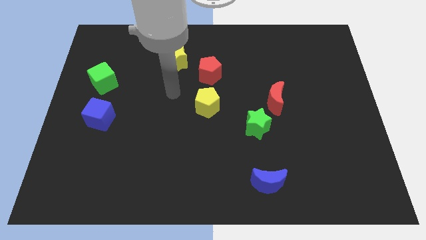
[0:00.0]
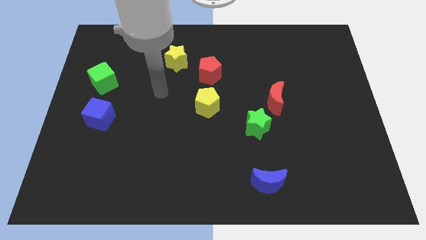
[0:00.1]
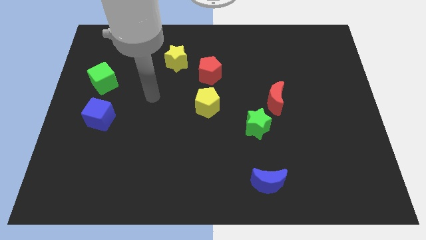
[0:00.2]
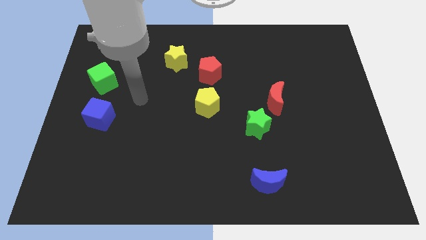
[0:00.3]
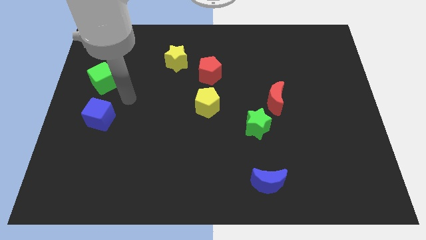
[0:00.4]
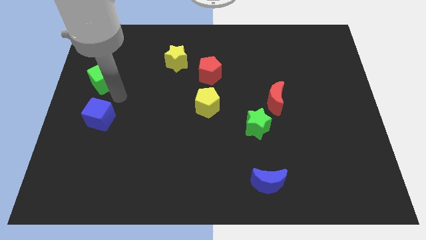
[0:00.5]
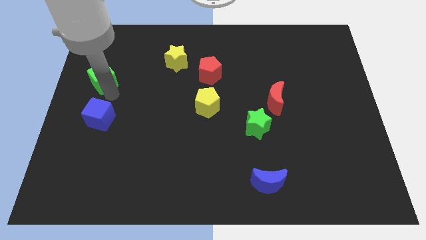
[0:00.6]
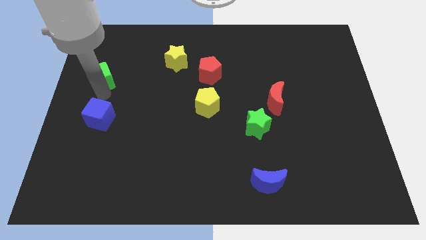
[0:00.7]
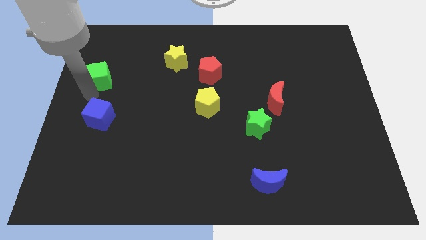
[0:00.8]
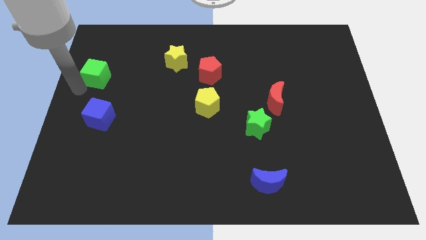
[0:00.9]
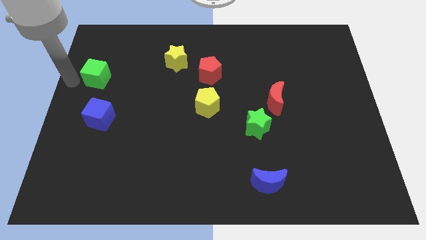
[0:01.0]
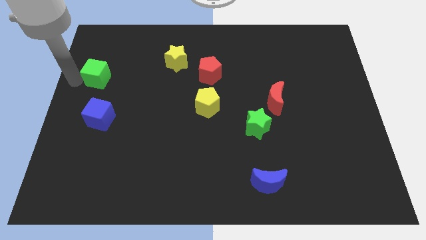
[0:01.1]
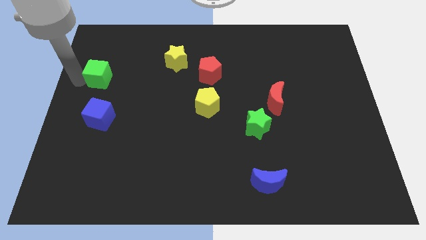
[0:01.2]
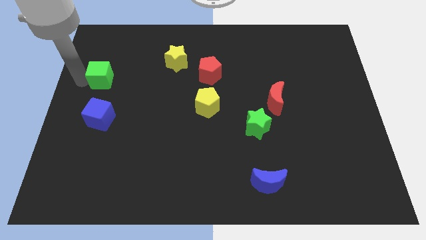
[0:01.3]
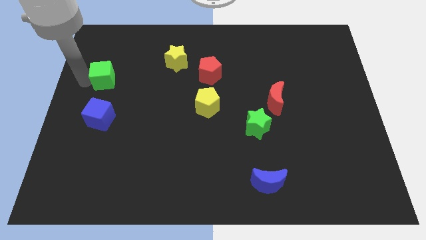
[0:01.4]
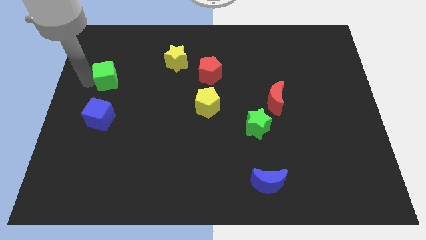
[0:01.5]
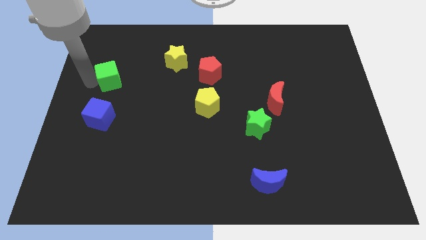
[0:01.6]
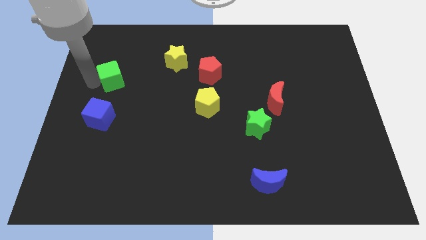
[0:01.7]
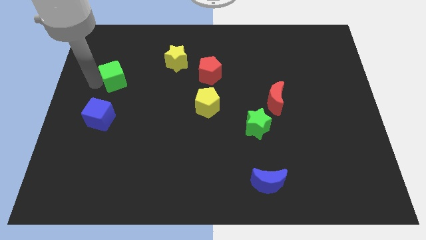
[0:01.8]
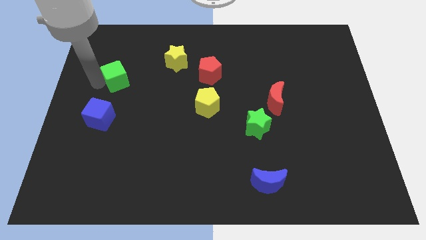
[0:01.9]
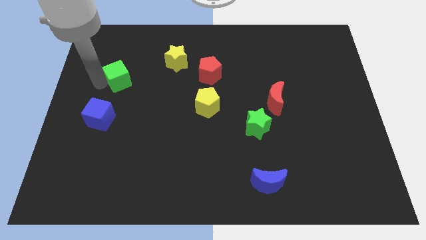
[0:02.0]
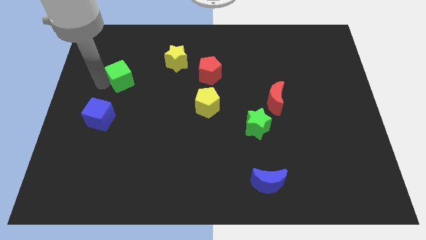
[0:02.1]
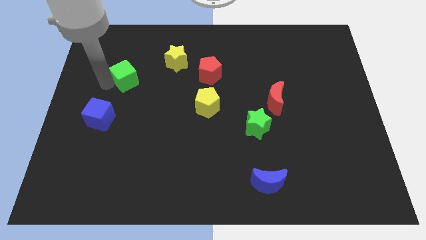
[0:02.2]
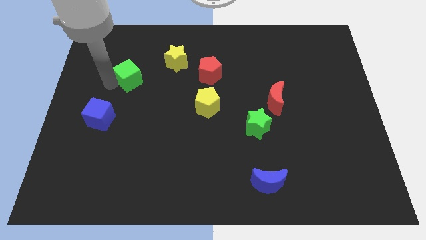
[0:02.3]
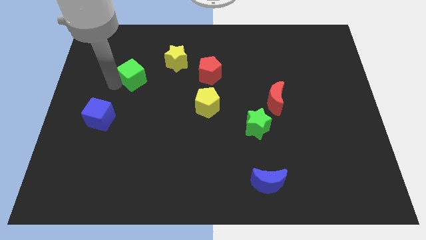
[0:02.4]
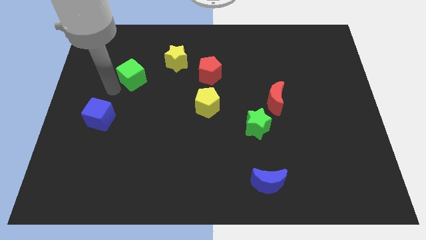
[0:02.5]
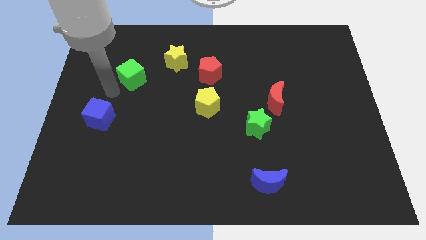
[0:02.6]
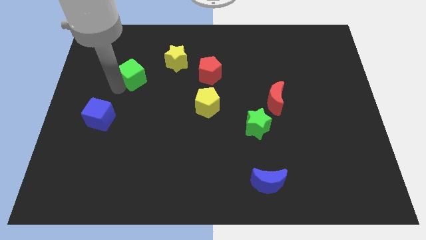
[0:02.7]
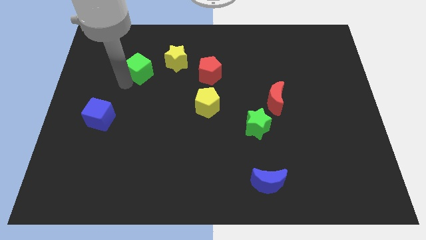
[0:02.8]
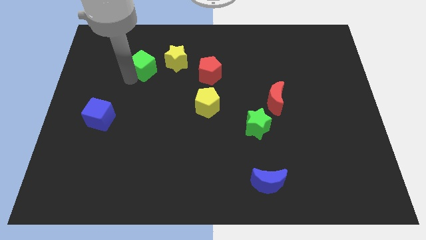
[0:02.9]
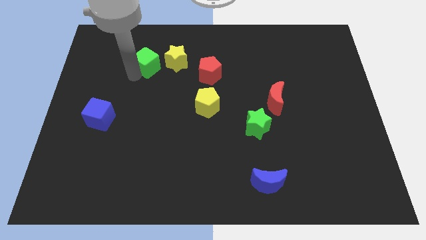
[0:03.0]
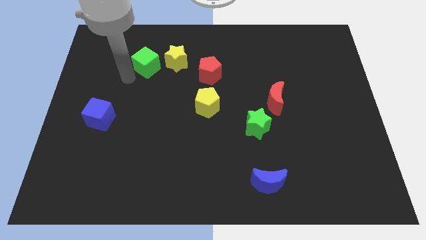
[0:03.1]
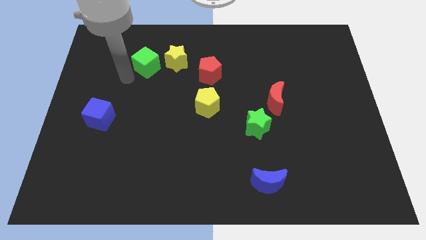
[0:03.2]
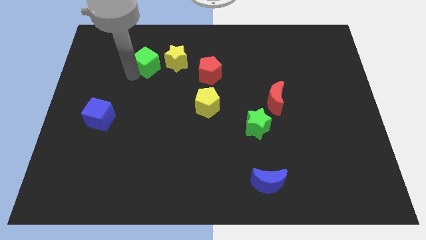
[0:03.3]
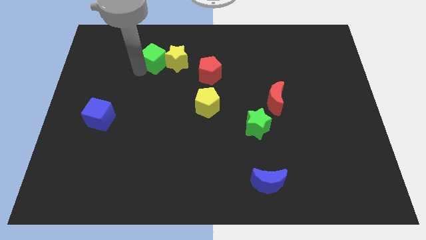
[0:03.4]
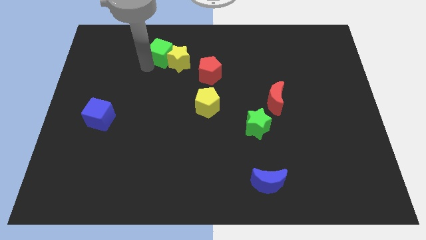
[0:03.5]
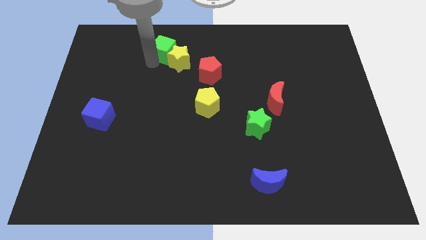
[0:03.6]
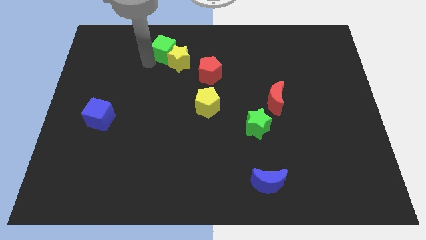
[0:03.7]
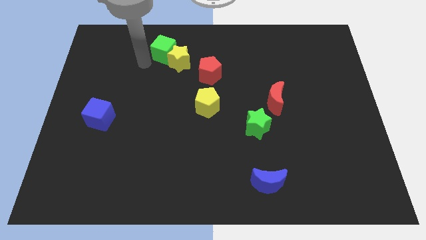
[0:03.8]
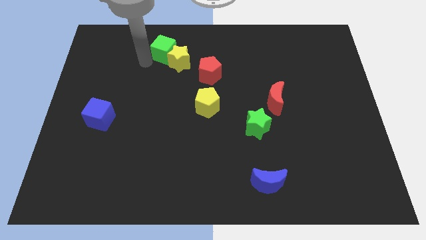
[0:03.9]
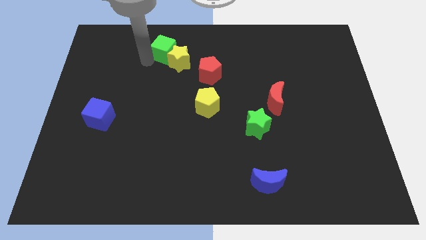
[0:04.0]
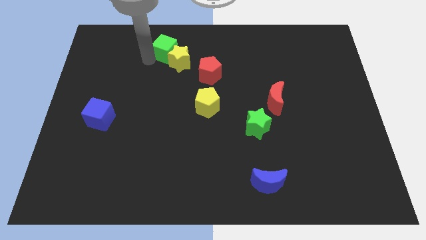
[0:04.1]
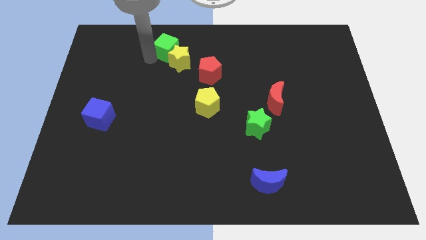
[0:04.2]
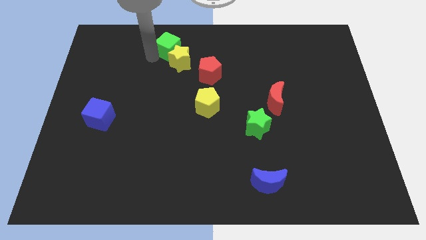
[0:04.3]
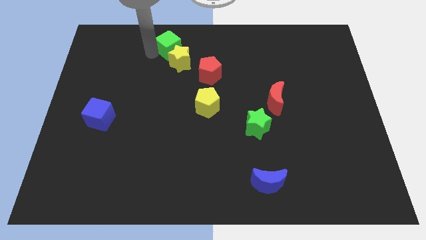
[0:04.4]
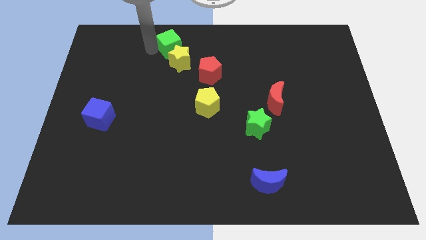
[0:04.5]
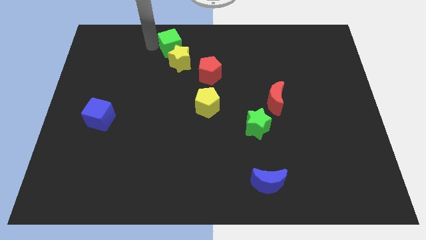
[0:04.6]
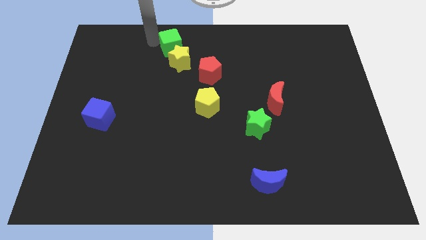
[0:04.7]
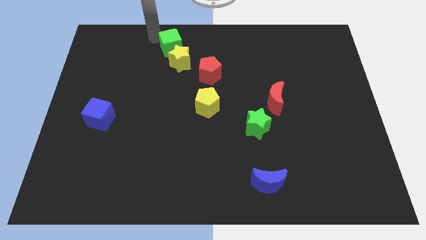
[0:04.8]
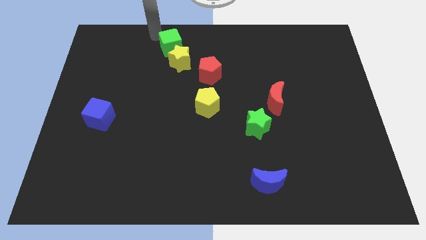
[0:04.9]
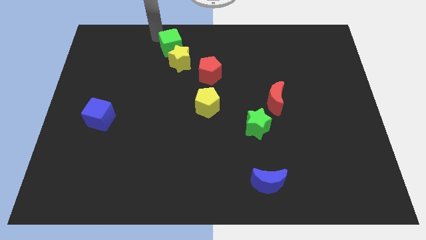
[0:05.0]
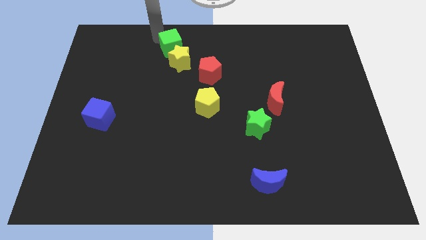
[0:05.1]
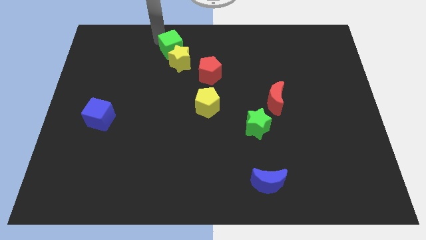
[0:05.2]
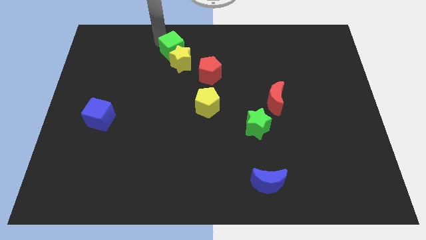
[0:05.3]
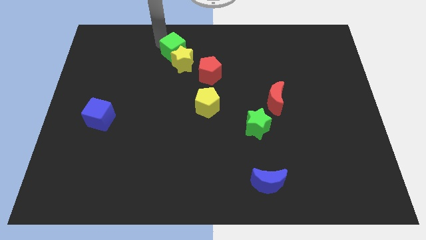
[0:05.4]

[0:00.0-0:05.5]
move the green cube to the top left of the red pentagon

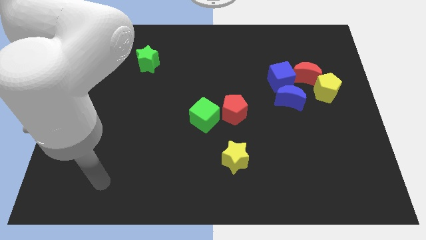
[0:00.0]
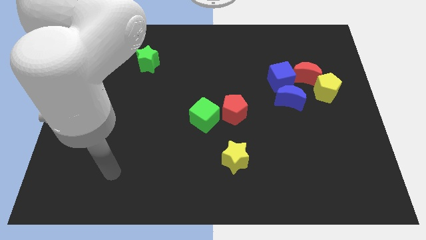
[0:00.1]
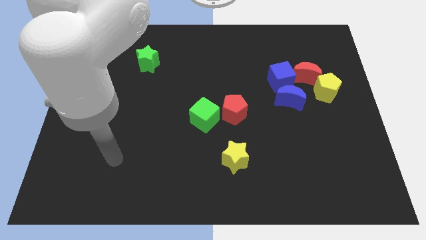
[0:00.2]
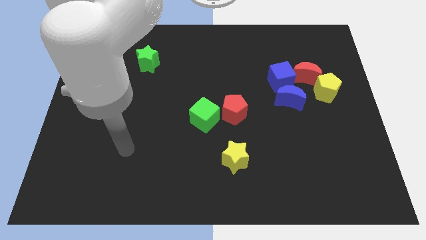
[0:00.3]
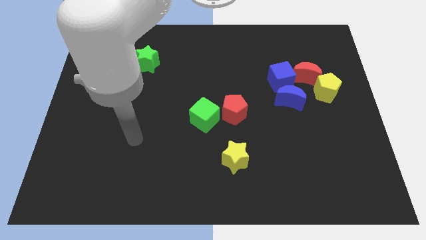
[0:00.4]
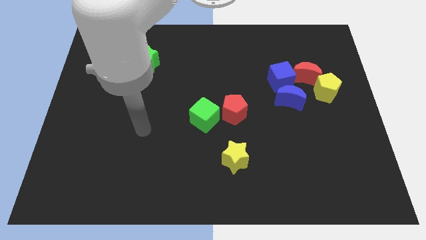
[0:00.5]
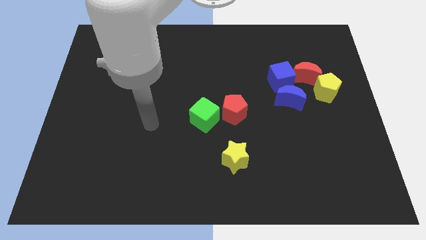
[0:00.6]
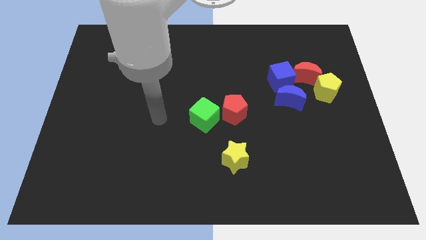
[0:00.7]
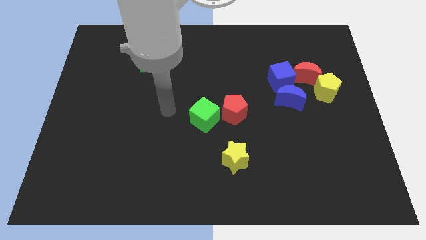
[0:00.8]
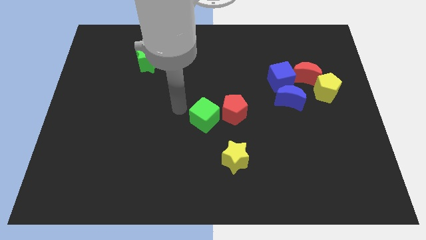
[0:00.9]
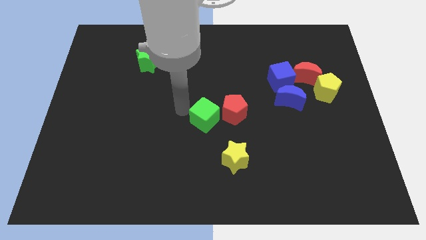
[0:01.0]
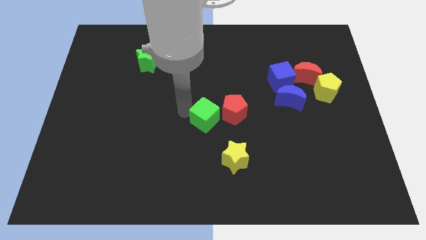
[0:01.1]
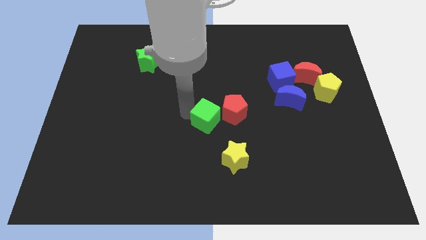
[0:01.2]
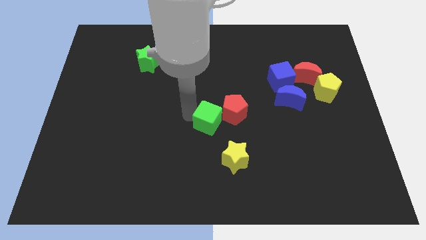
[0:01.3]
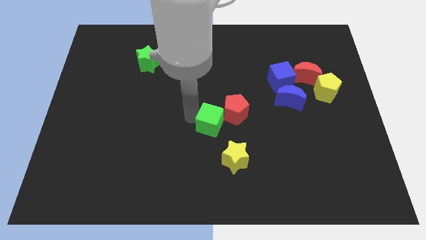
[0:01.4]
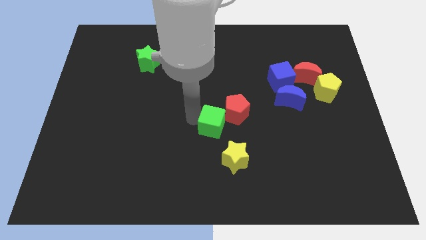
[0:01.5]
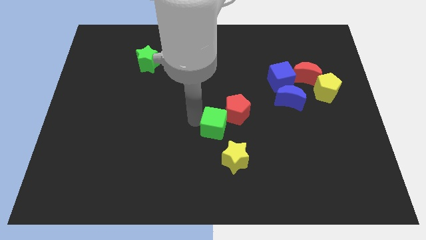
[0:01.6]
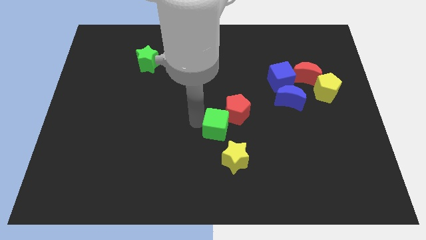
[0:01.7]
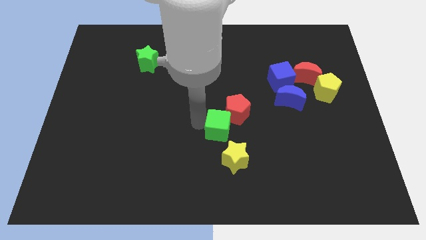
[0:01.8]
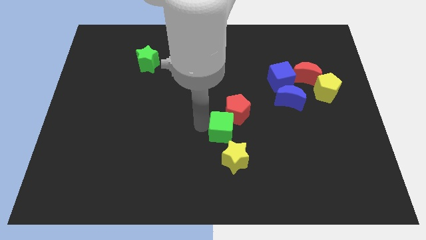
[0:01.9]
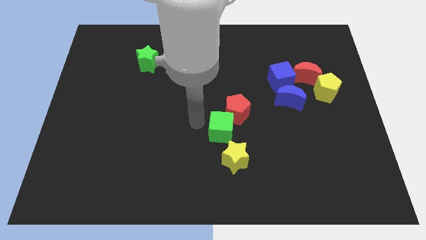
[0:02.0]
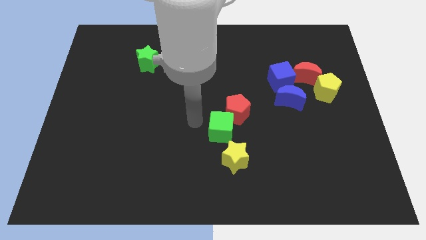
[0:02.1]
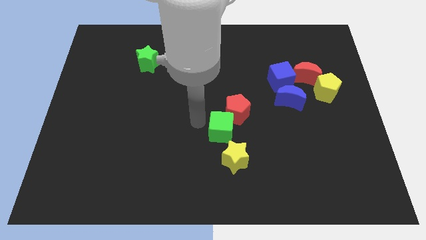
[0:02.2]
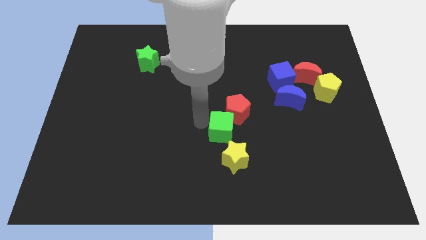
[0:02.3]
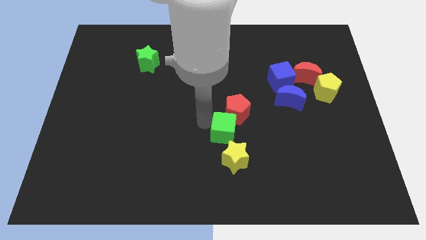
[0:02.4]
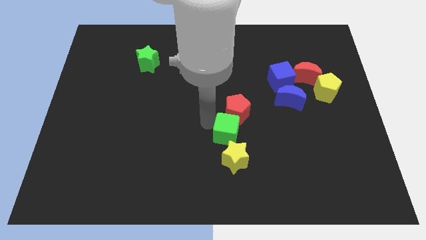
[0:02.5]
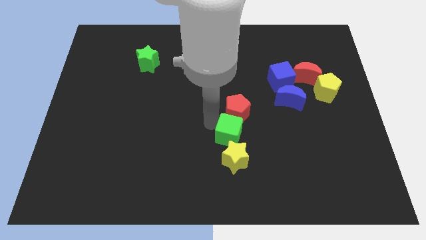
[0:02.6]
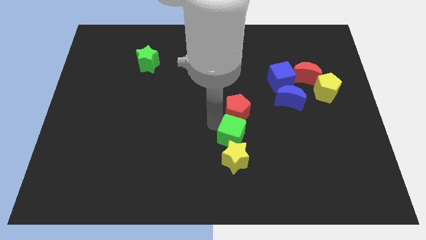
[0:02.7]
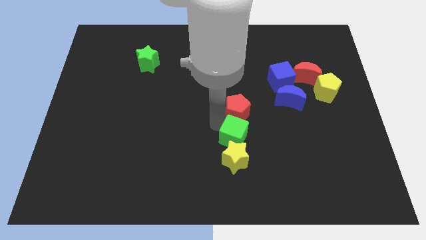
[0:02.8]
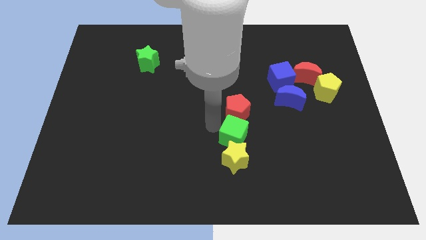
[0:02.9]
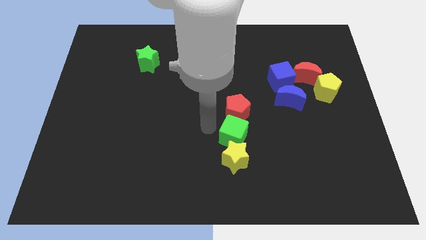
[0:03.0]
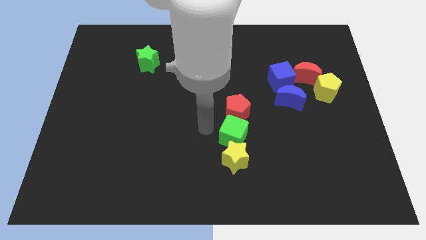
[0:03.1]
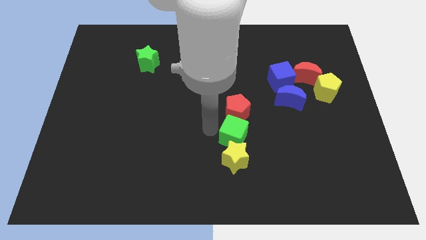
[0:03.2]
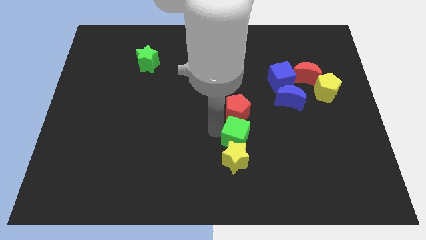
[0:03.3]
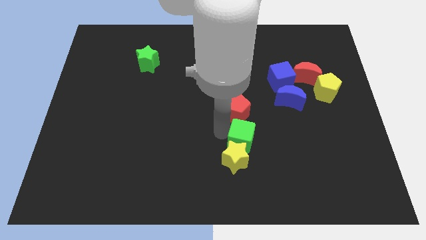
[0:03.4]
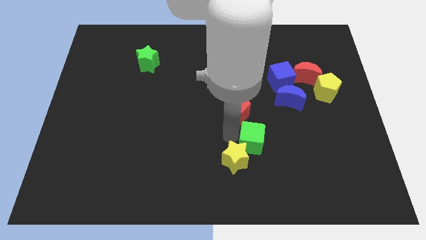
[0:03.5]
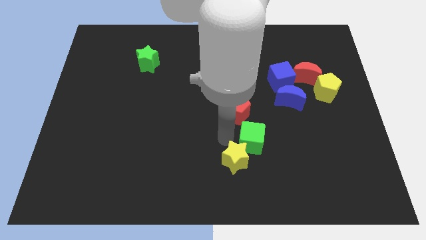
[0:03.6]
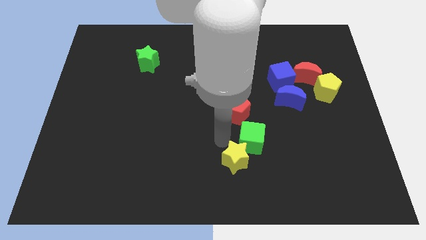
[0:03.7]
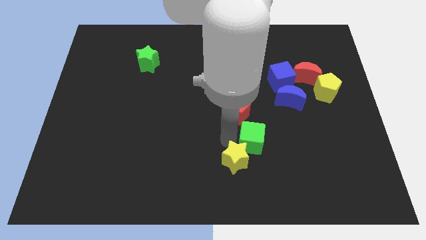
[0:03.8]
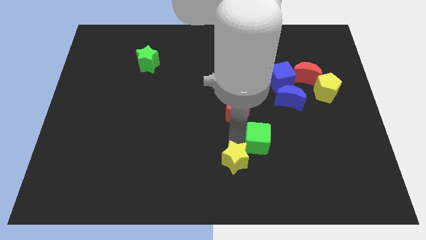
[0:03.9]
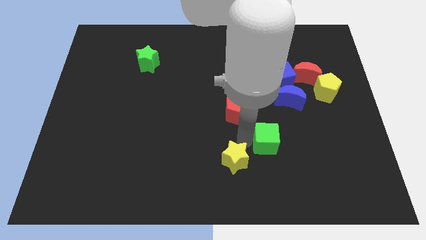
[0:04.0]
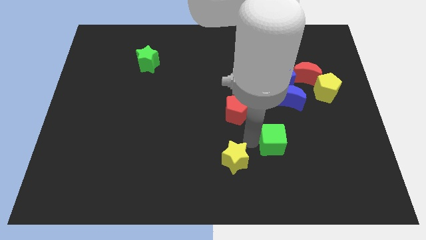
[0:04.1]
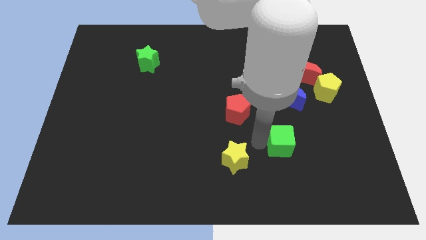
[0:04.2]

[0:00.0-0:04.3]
slide the green cube below the blue moon
